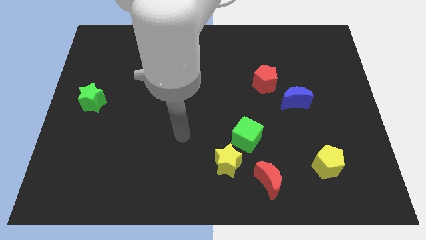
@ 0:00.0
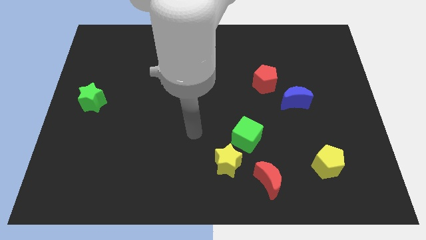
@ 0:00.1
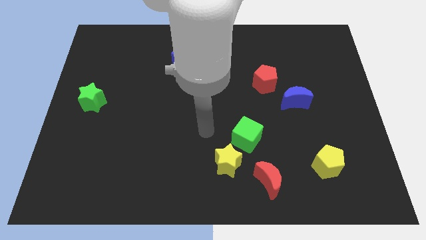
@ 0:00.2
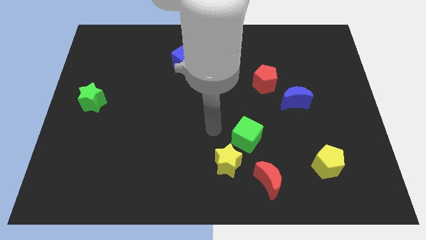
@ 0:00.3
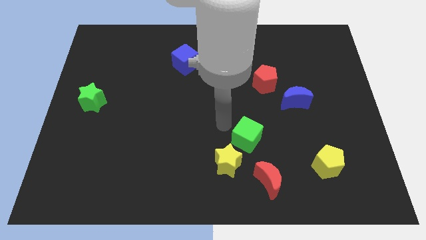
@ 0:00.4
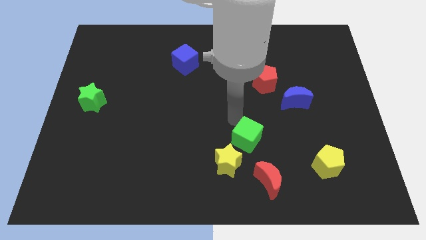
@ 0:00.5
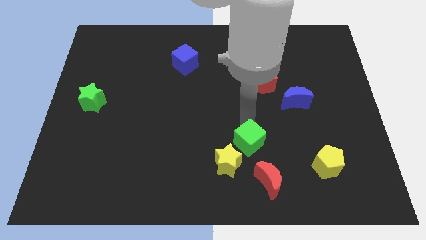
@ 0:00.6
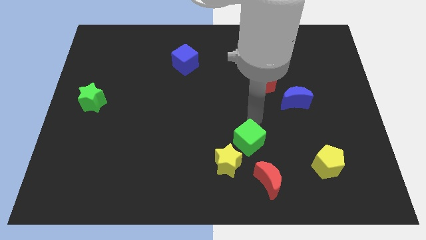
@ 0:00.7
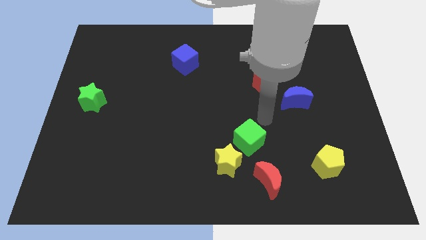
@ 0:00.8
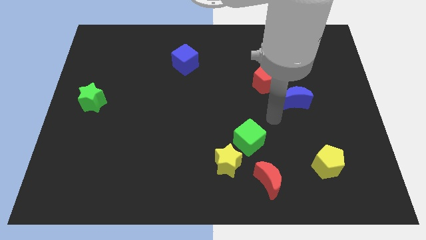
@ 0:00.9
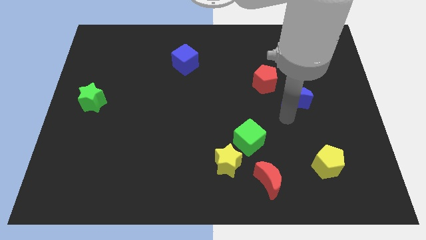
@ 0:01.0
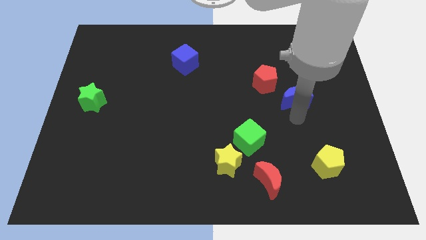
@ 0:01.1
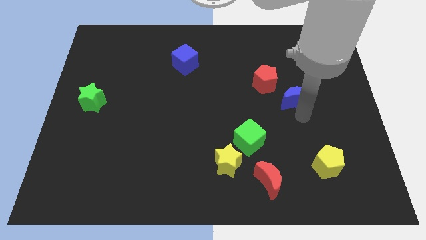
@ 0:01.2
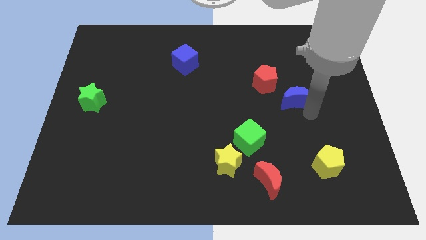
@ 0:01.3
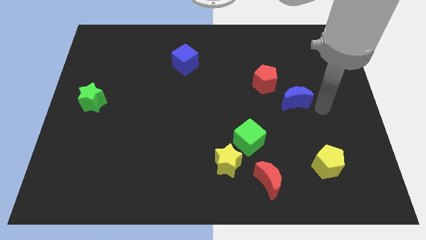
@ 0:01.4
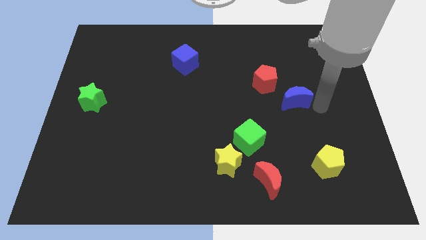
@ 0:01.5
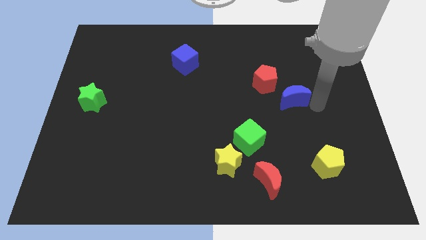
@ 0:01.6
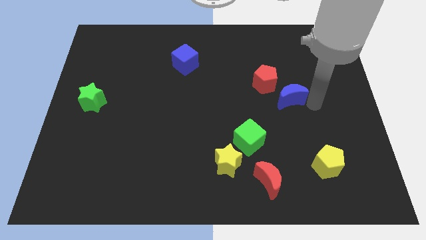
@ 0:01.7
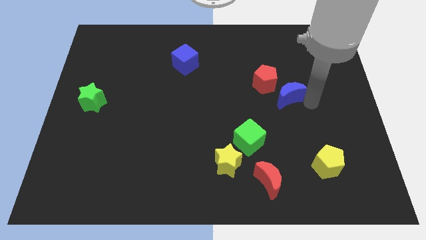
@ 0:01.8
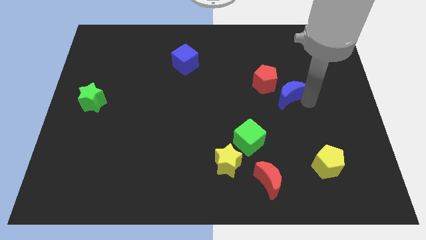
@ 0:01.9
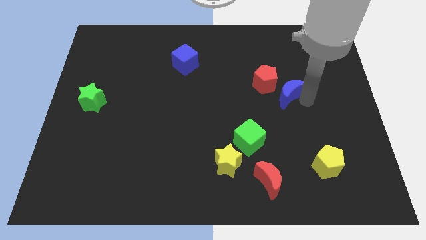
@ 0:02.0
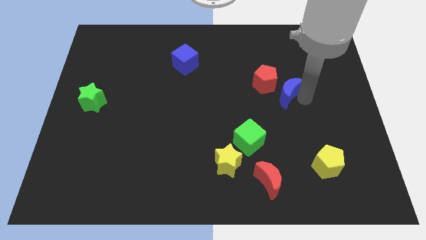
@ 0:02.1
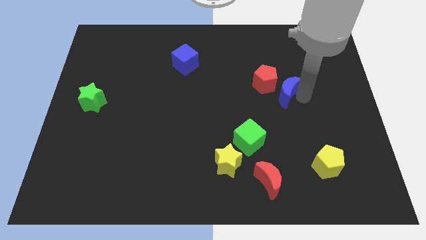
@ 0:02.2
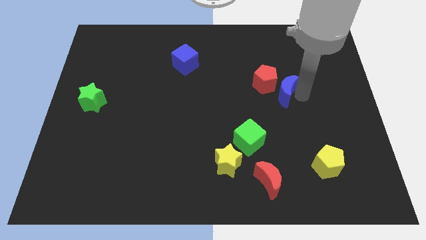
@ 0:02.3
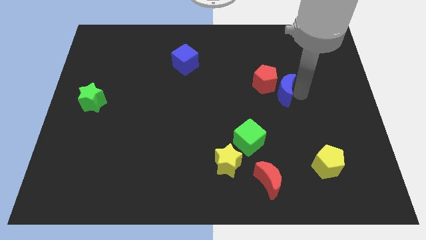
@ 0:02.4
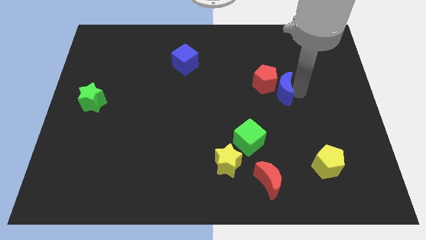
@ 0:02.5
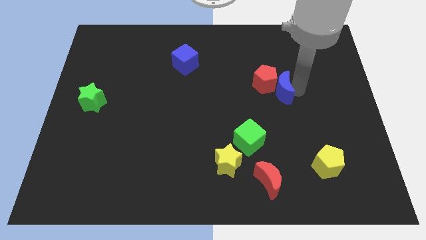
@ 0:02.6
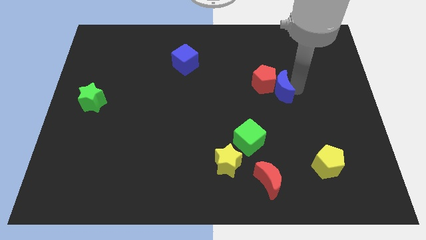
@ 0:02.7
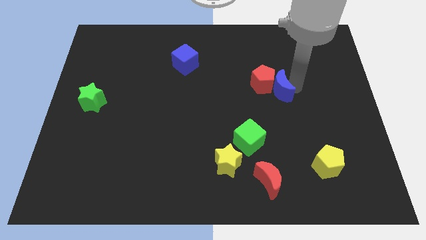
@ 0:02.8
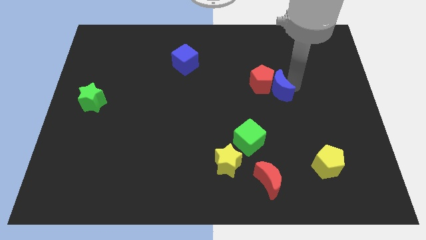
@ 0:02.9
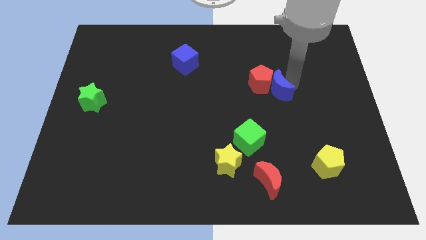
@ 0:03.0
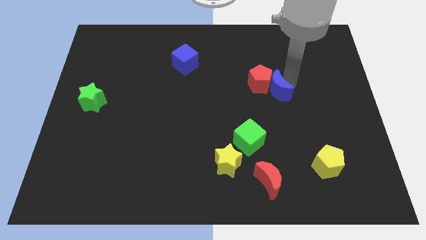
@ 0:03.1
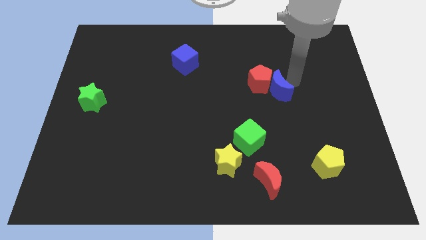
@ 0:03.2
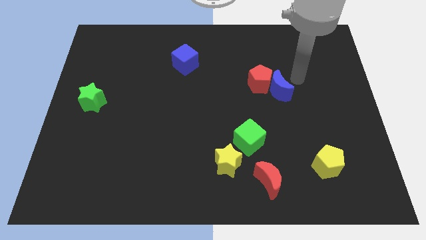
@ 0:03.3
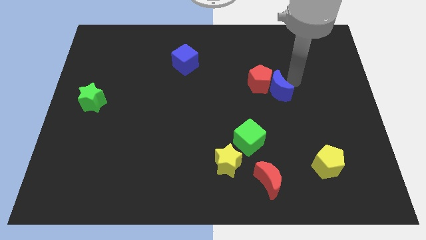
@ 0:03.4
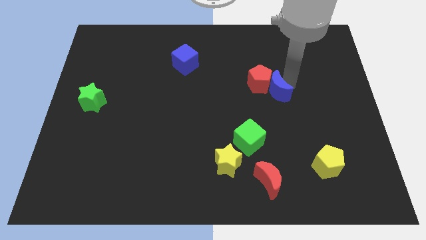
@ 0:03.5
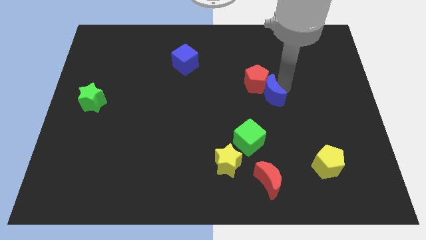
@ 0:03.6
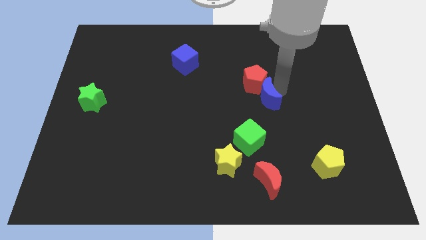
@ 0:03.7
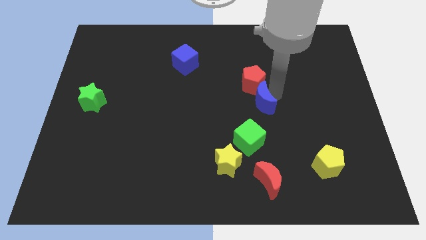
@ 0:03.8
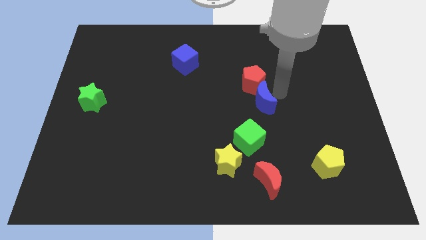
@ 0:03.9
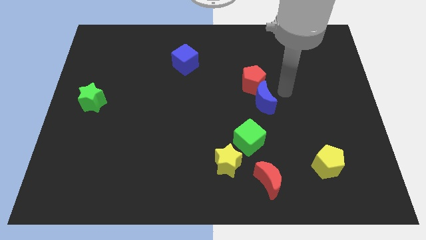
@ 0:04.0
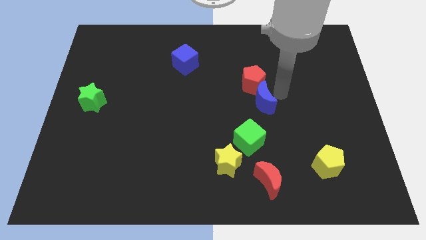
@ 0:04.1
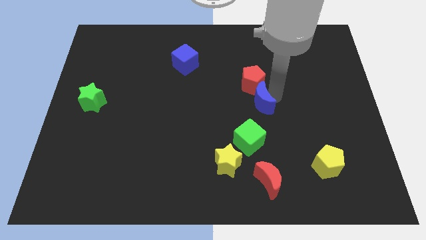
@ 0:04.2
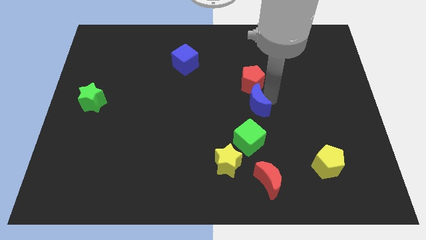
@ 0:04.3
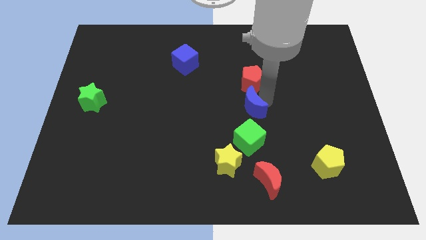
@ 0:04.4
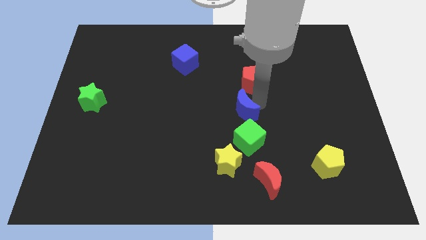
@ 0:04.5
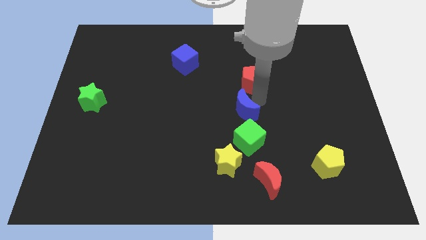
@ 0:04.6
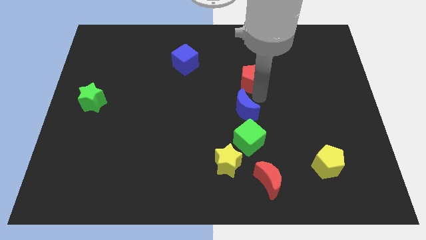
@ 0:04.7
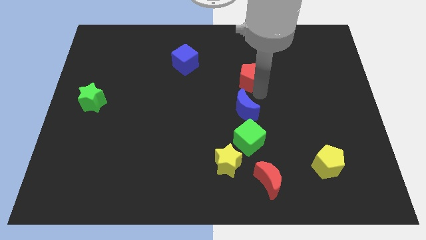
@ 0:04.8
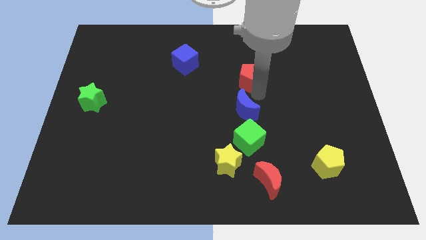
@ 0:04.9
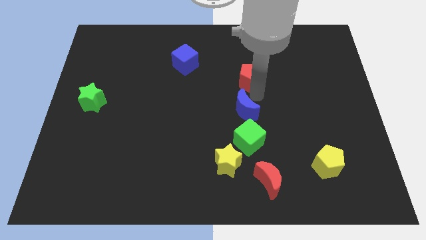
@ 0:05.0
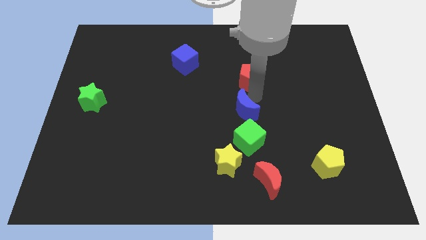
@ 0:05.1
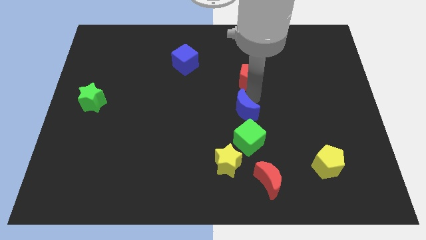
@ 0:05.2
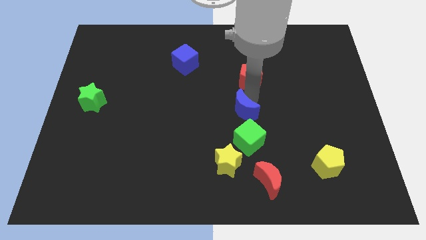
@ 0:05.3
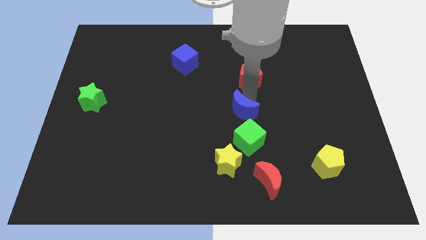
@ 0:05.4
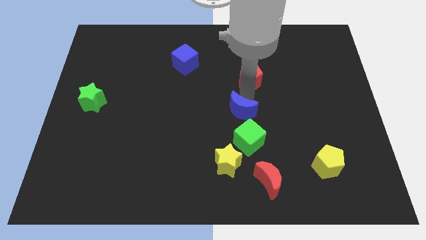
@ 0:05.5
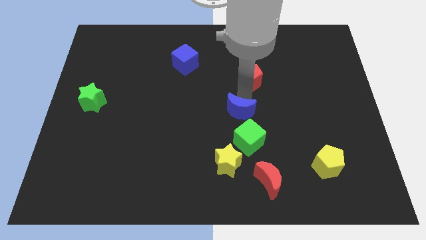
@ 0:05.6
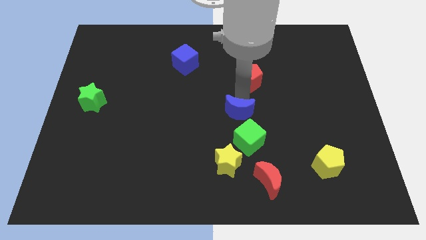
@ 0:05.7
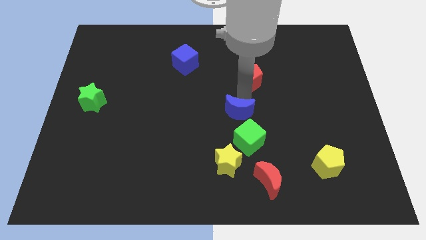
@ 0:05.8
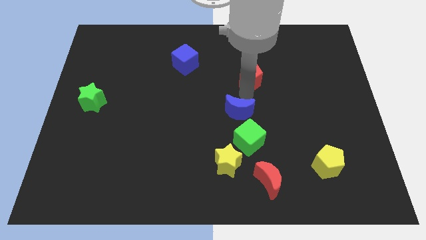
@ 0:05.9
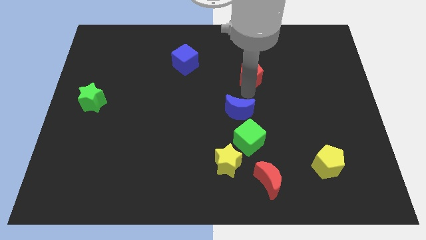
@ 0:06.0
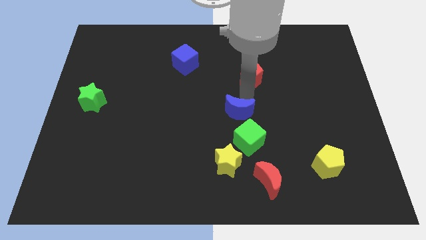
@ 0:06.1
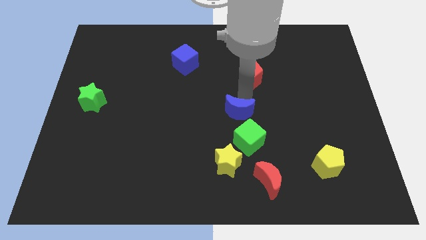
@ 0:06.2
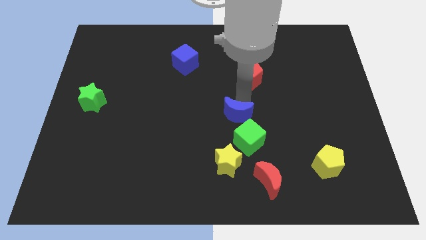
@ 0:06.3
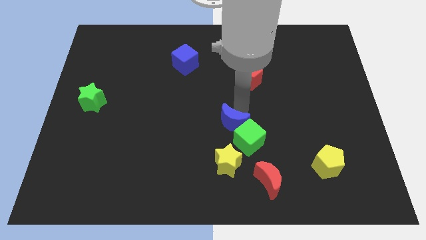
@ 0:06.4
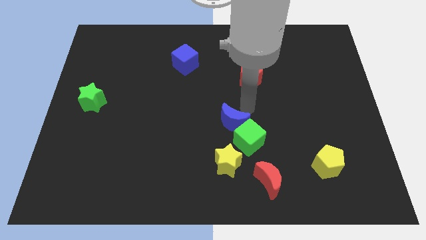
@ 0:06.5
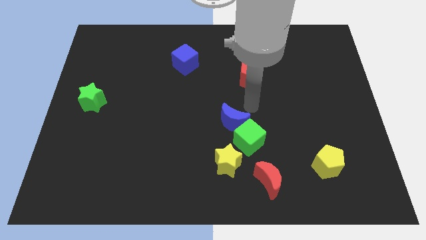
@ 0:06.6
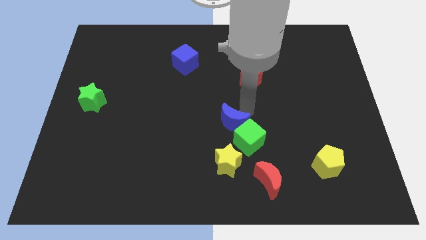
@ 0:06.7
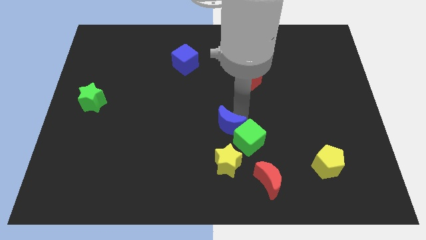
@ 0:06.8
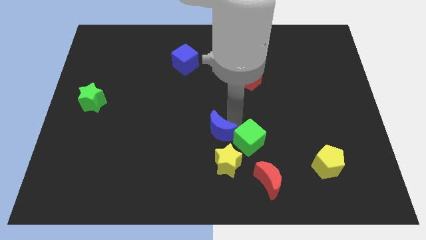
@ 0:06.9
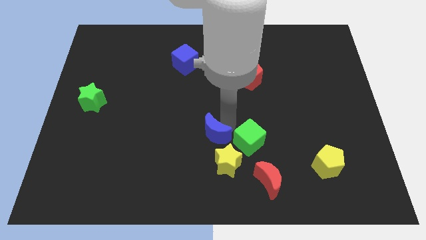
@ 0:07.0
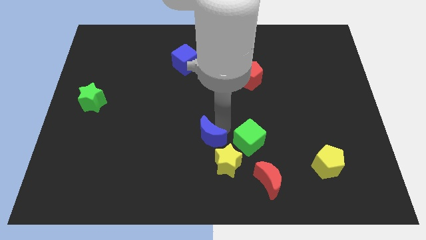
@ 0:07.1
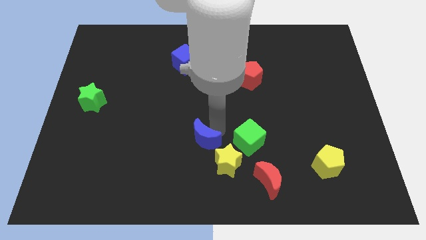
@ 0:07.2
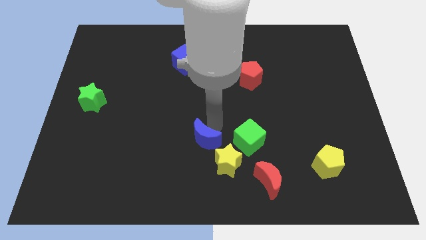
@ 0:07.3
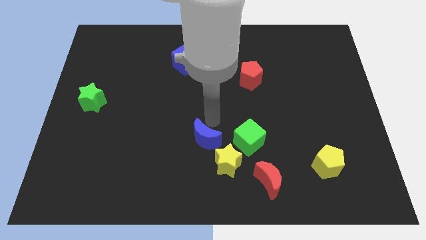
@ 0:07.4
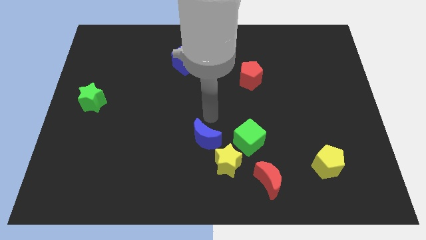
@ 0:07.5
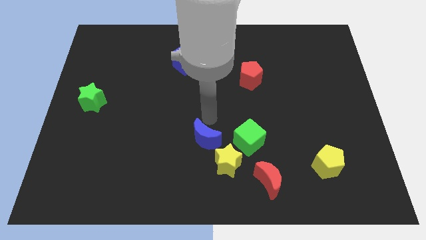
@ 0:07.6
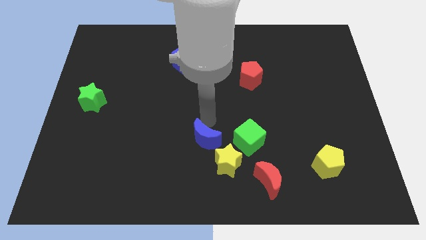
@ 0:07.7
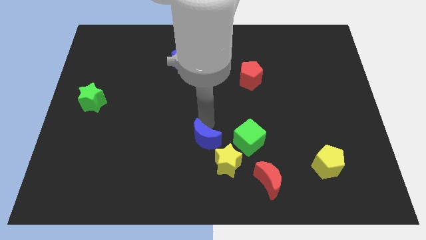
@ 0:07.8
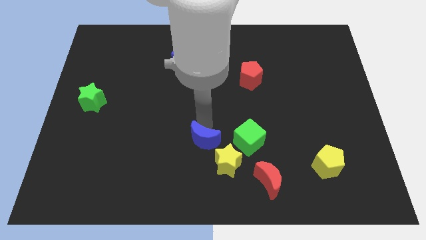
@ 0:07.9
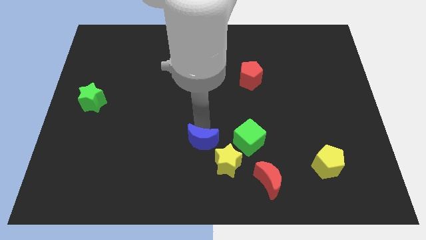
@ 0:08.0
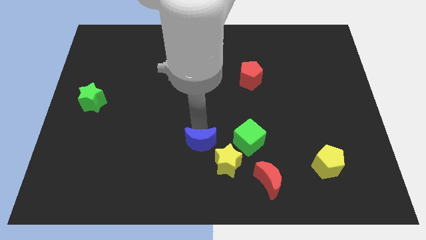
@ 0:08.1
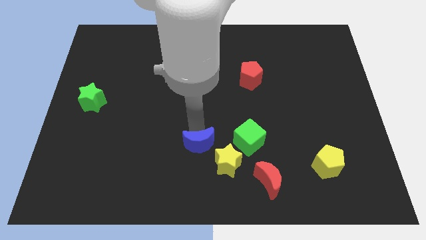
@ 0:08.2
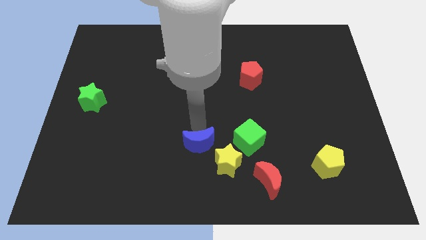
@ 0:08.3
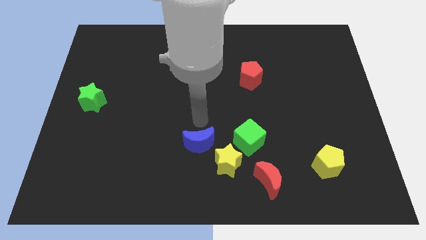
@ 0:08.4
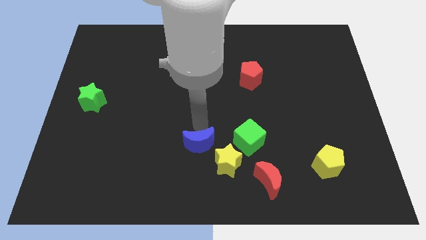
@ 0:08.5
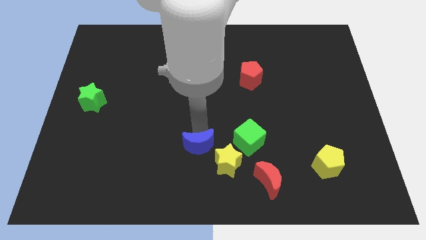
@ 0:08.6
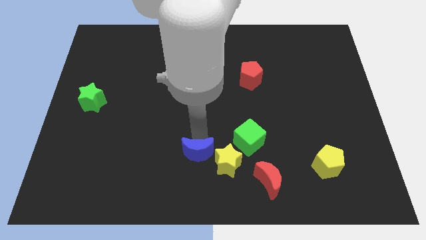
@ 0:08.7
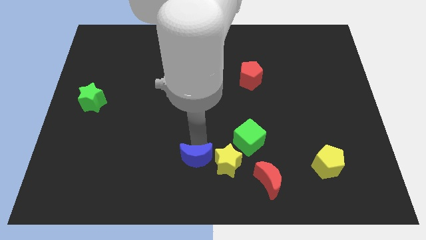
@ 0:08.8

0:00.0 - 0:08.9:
push the blue moon to the bottom
